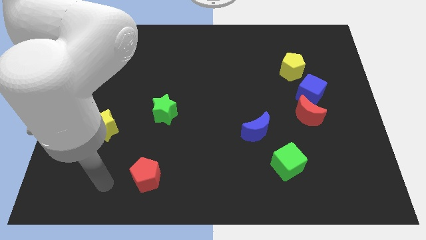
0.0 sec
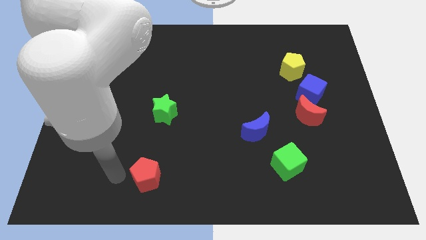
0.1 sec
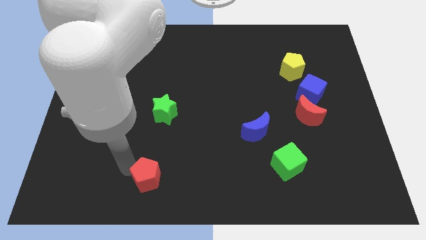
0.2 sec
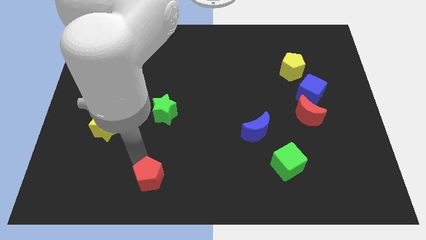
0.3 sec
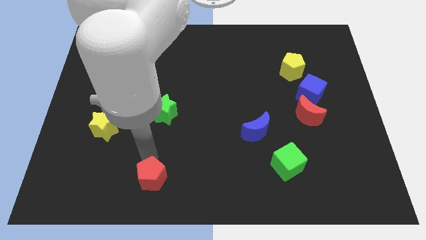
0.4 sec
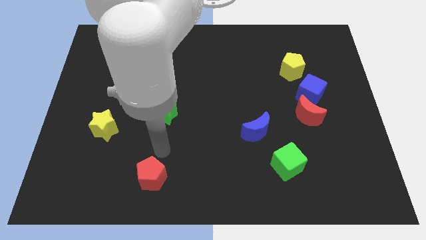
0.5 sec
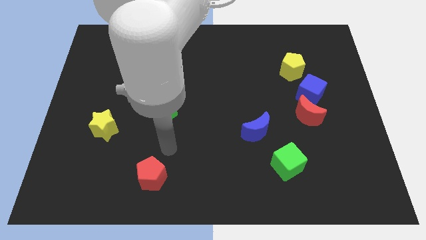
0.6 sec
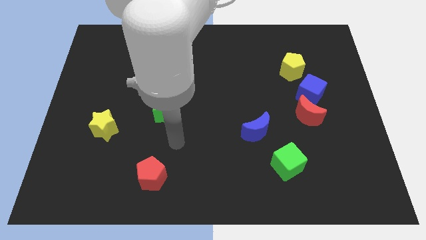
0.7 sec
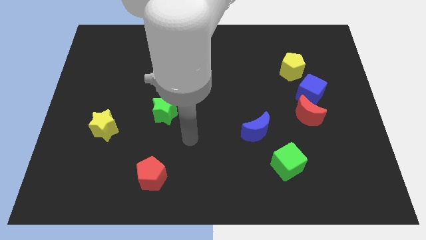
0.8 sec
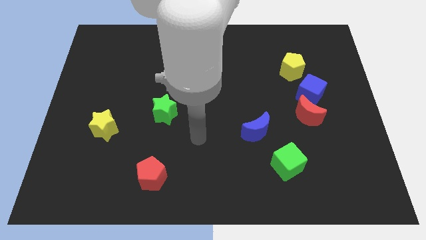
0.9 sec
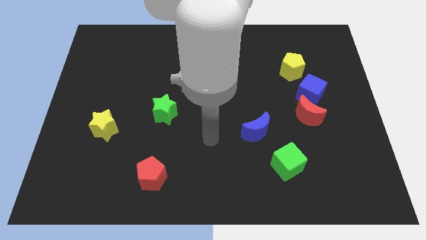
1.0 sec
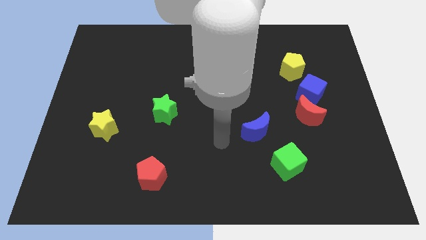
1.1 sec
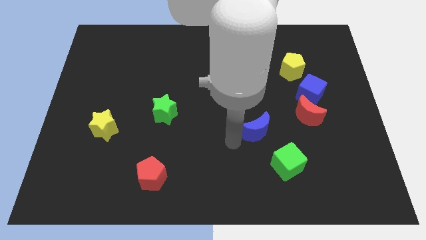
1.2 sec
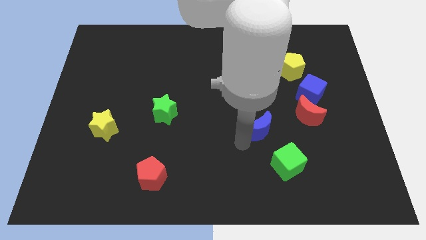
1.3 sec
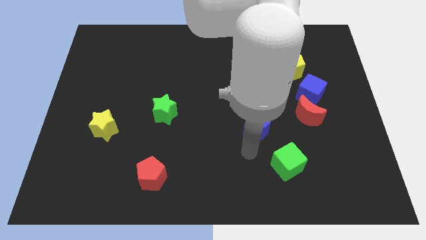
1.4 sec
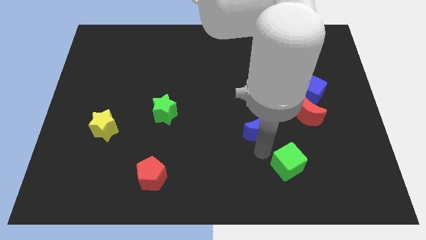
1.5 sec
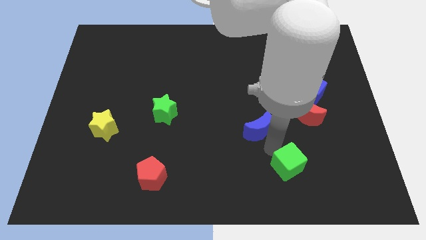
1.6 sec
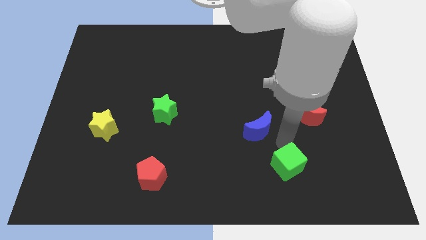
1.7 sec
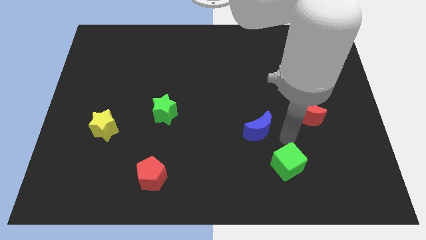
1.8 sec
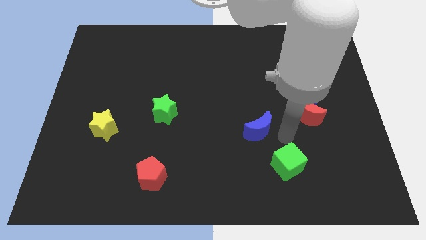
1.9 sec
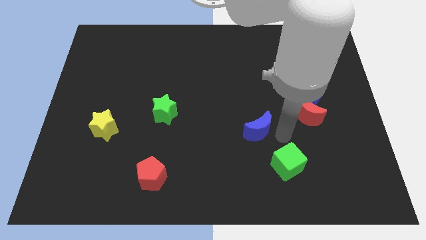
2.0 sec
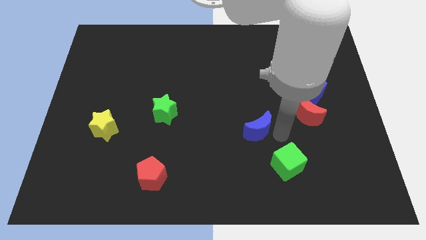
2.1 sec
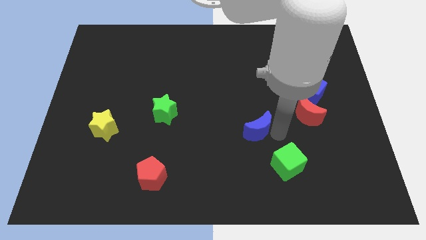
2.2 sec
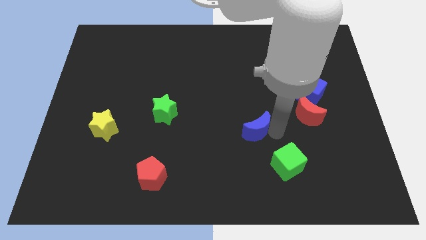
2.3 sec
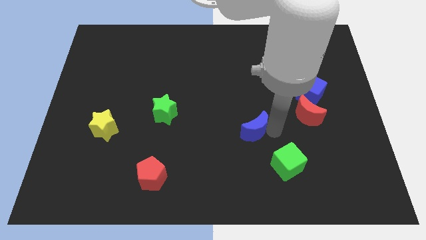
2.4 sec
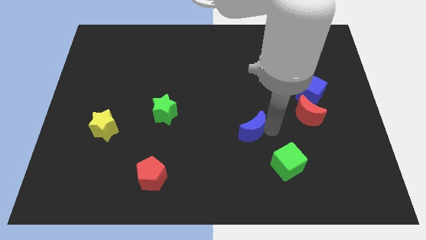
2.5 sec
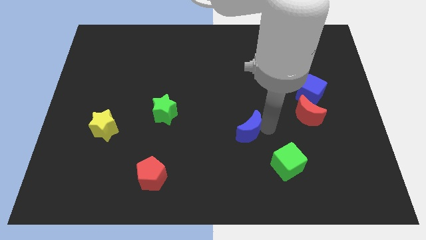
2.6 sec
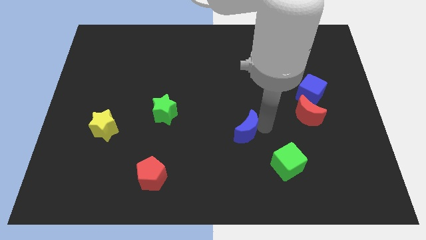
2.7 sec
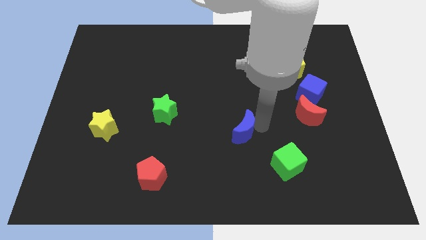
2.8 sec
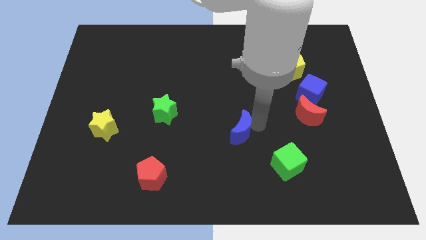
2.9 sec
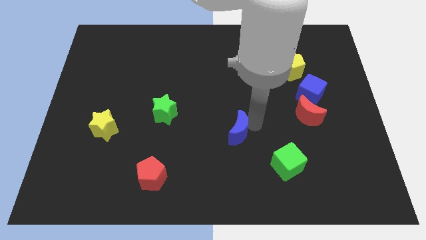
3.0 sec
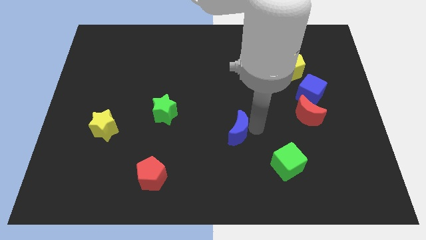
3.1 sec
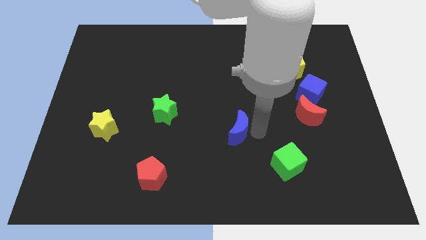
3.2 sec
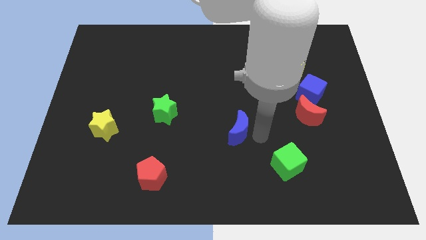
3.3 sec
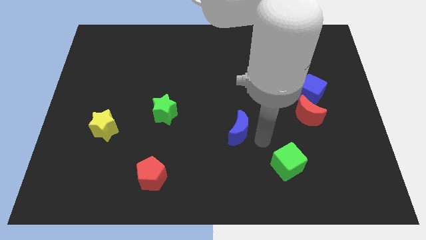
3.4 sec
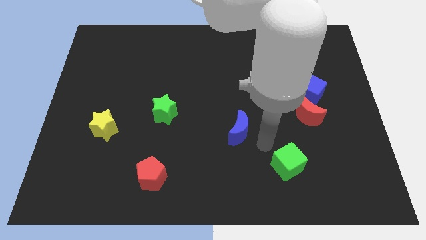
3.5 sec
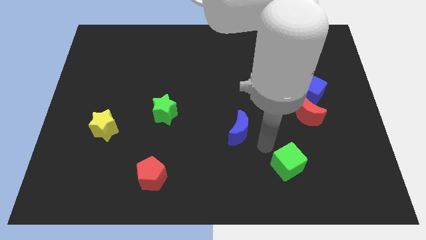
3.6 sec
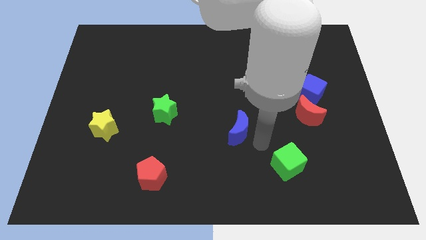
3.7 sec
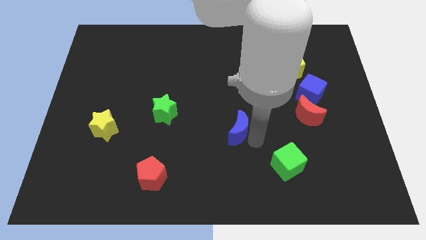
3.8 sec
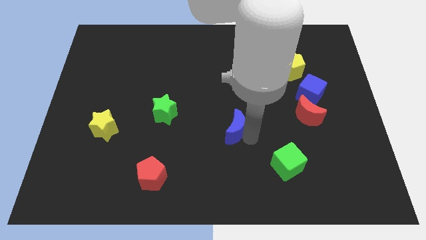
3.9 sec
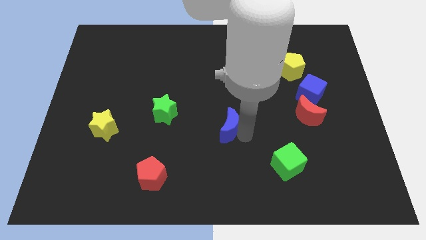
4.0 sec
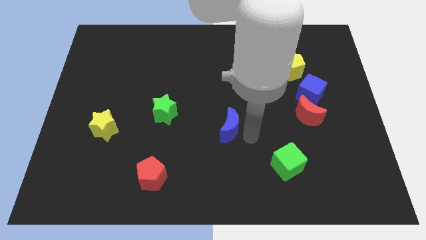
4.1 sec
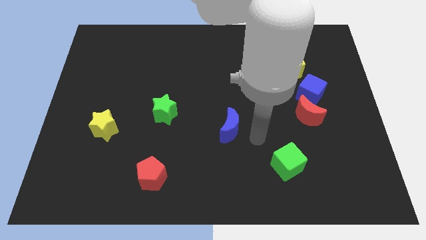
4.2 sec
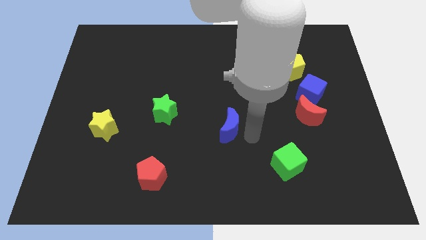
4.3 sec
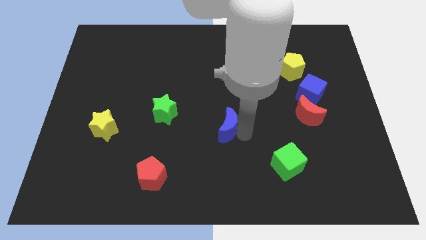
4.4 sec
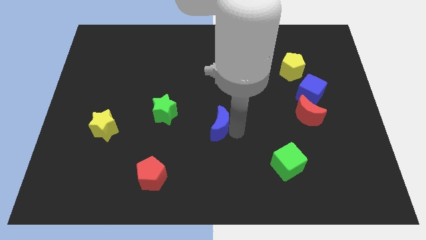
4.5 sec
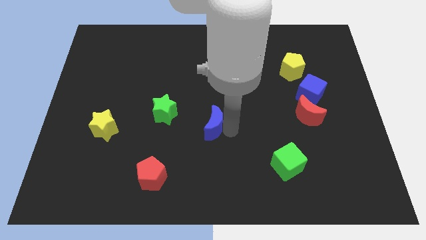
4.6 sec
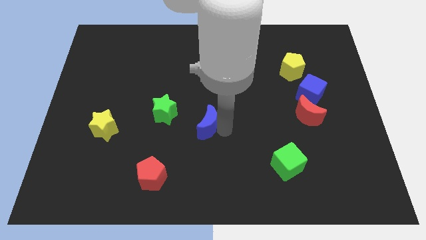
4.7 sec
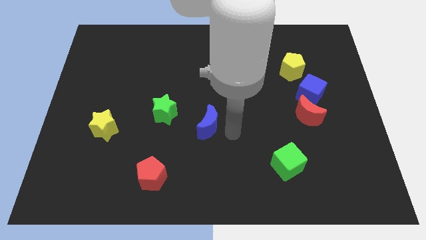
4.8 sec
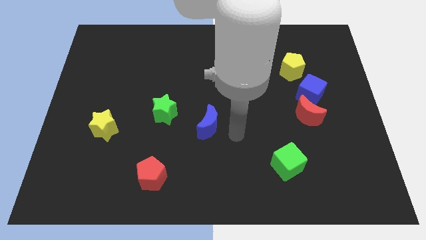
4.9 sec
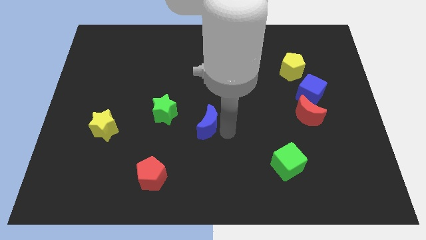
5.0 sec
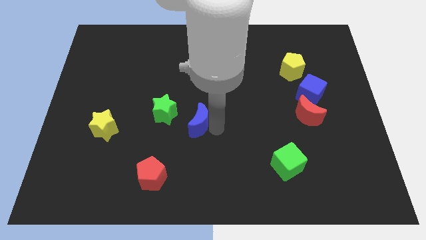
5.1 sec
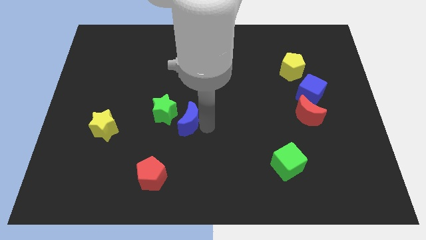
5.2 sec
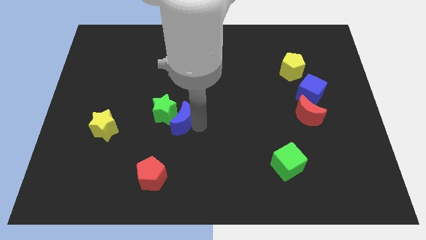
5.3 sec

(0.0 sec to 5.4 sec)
move the blue moon close to the green star
